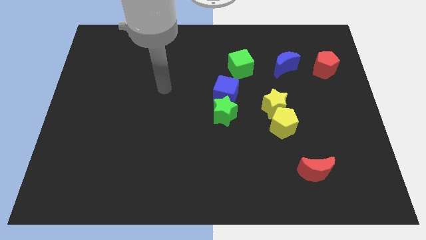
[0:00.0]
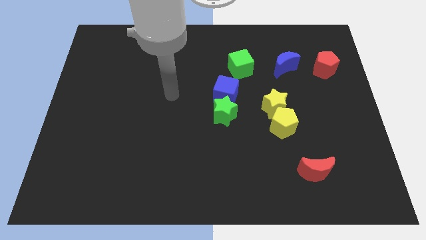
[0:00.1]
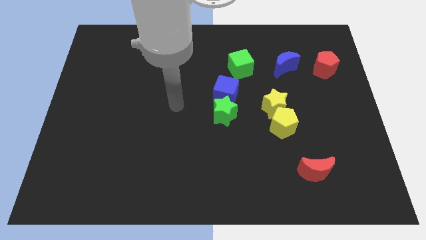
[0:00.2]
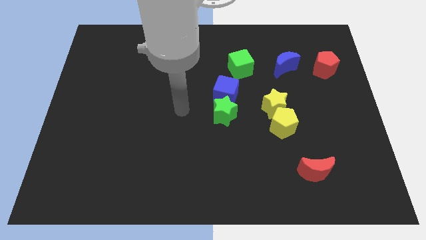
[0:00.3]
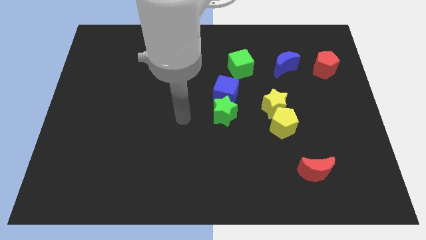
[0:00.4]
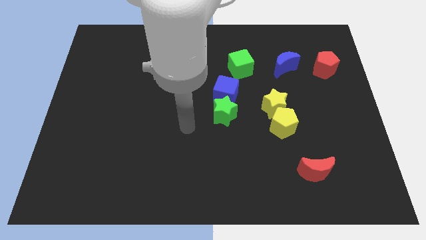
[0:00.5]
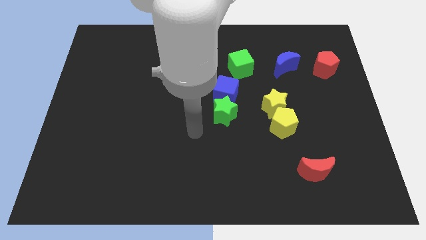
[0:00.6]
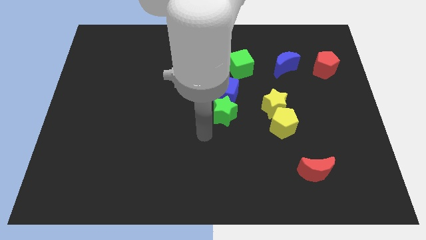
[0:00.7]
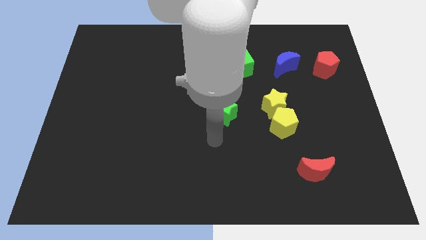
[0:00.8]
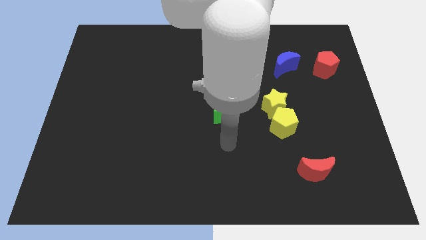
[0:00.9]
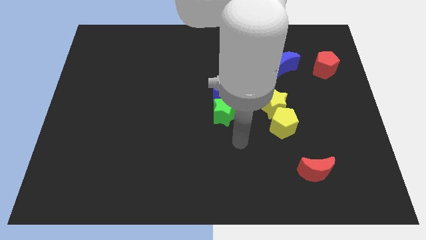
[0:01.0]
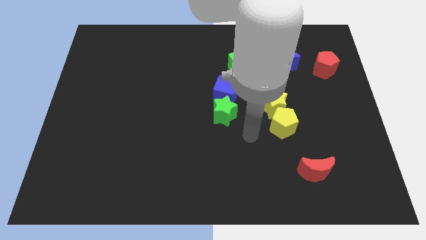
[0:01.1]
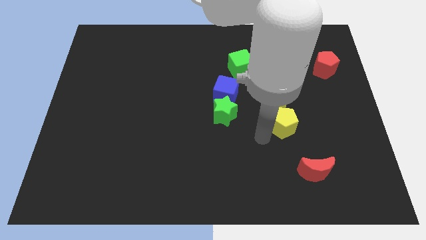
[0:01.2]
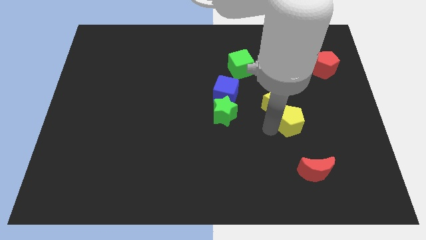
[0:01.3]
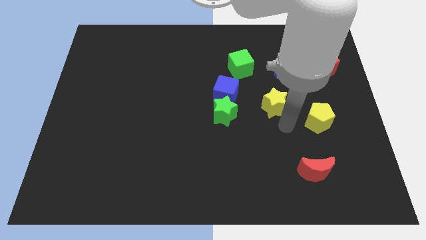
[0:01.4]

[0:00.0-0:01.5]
move the yellow star away from the yellow pentagon

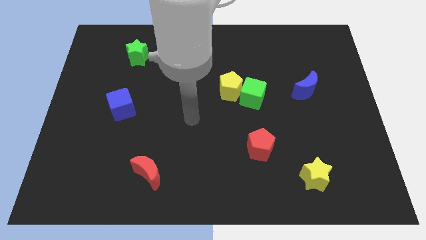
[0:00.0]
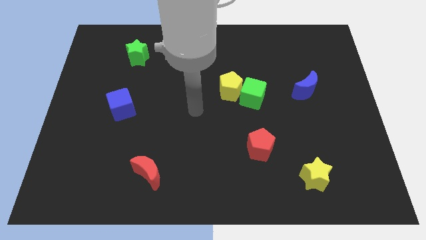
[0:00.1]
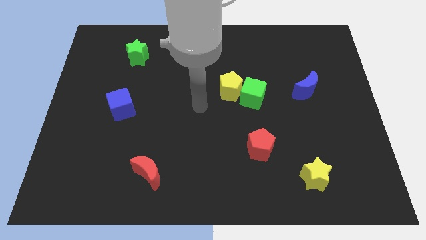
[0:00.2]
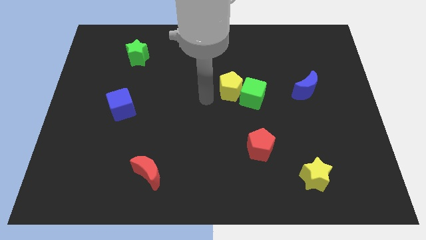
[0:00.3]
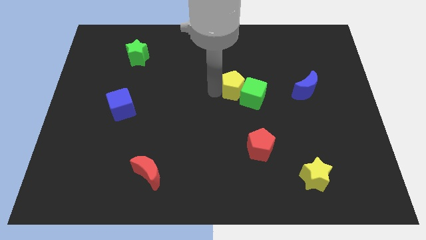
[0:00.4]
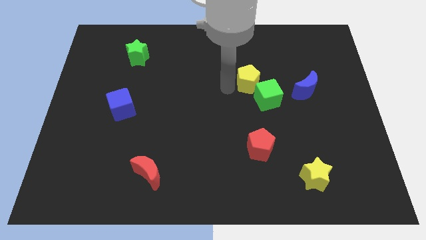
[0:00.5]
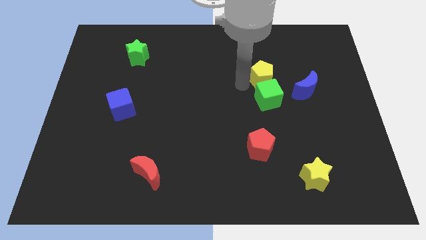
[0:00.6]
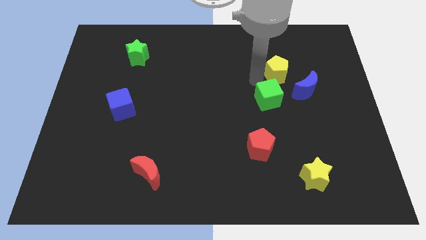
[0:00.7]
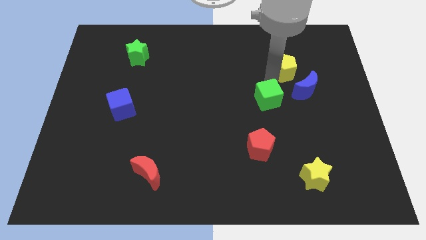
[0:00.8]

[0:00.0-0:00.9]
move the green cube away from the yellow pentagon

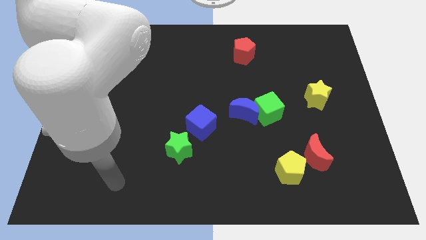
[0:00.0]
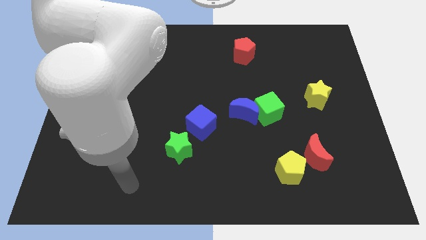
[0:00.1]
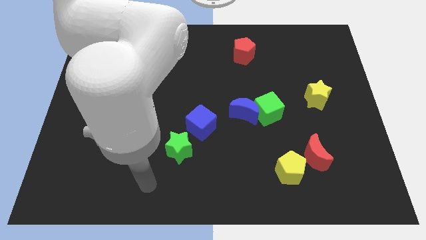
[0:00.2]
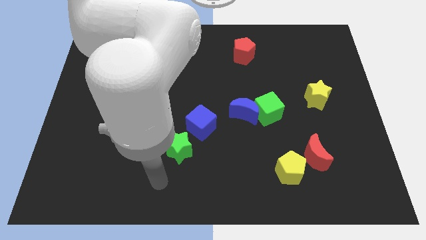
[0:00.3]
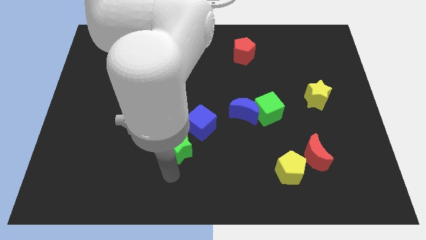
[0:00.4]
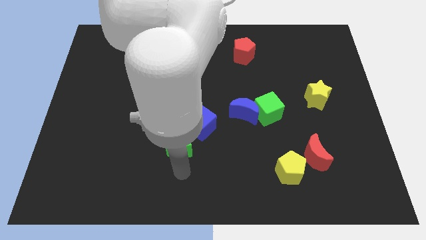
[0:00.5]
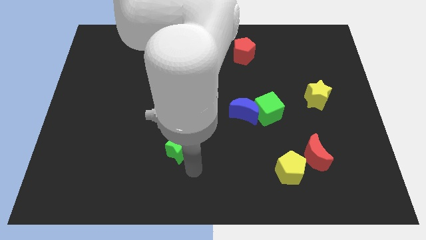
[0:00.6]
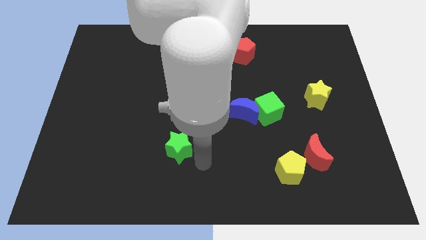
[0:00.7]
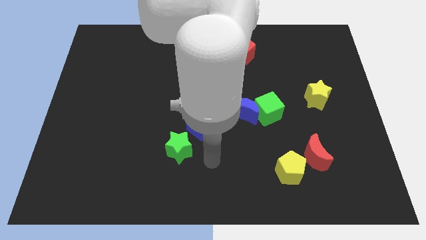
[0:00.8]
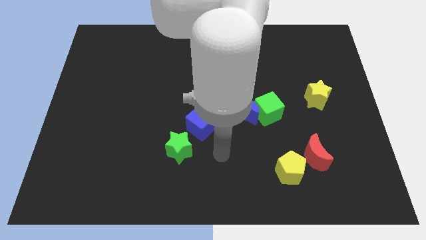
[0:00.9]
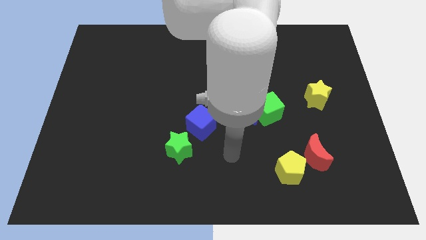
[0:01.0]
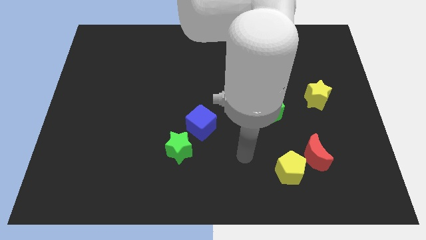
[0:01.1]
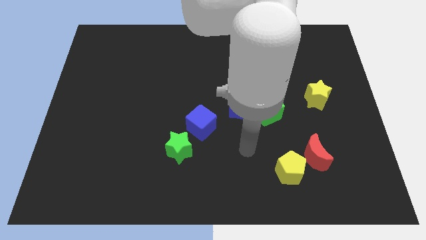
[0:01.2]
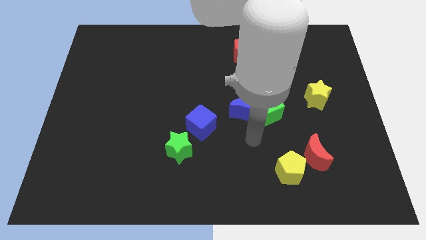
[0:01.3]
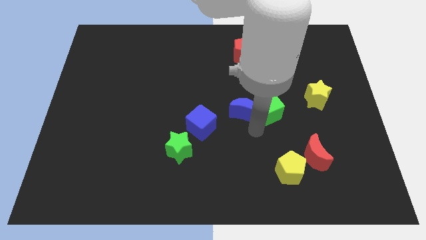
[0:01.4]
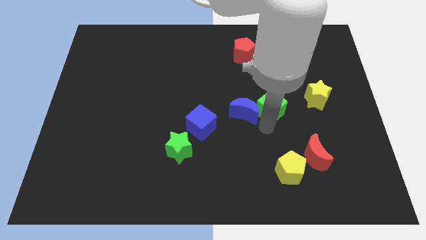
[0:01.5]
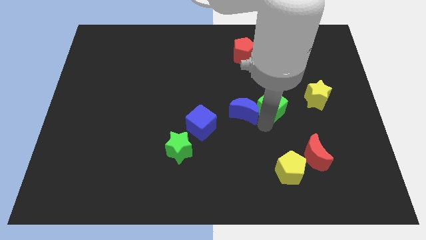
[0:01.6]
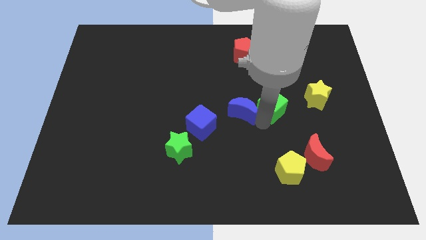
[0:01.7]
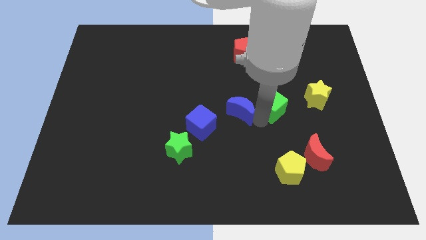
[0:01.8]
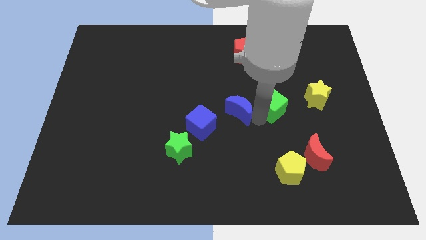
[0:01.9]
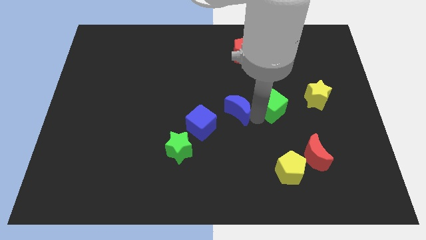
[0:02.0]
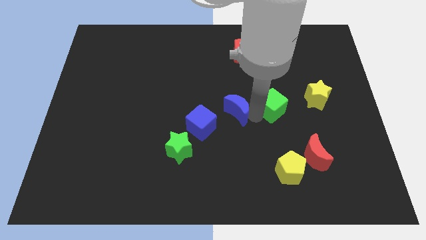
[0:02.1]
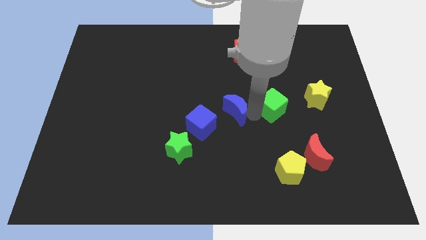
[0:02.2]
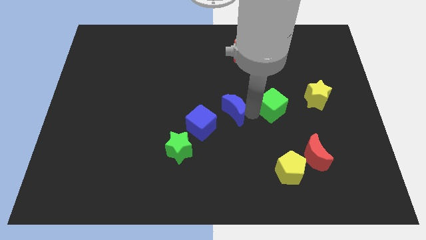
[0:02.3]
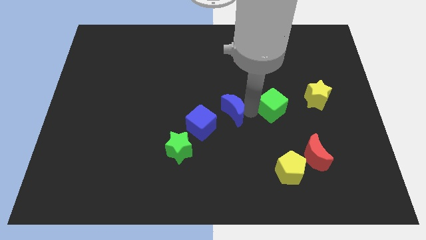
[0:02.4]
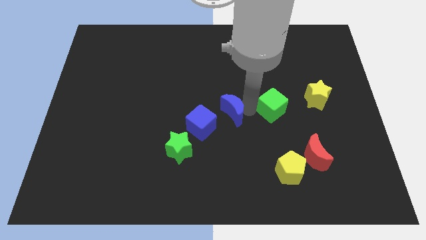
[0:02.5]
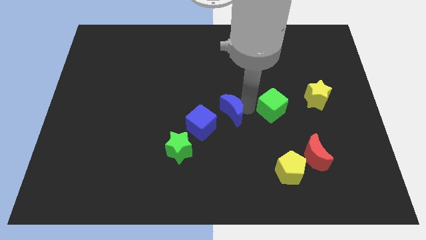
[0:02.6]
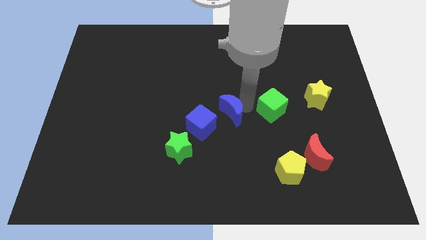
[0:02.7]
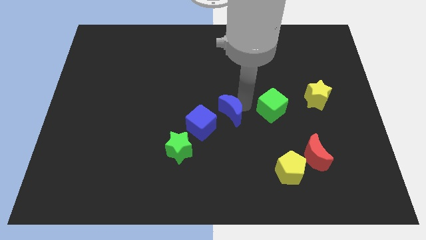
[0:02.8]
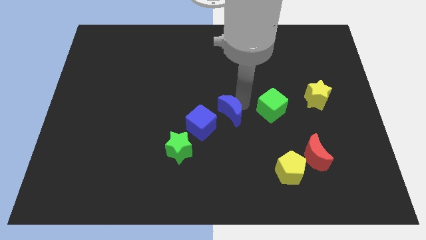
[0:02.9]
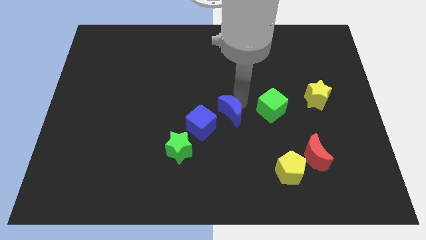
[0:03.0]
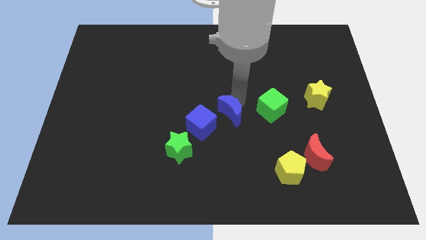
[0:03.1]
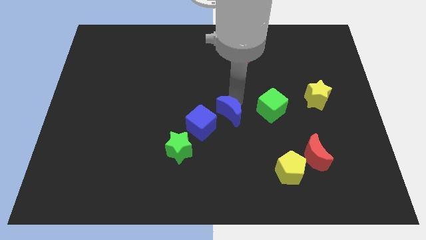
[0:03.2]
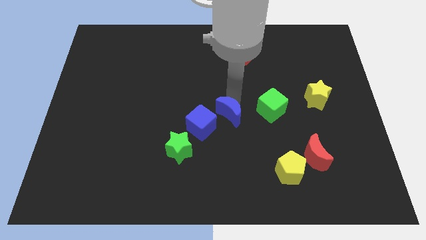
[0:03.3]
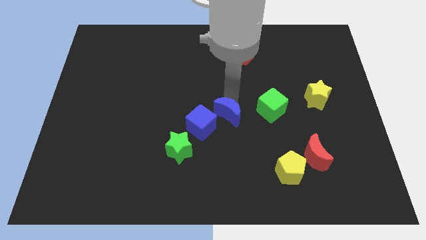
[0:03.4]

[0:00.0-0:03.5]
separate the blue moon from the green cube

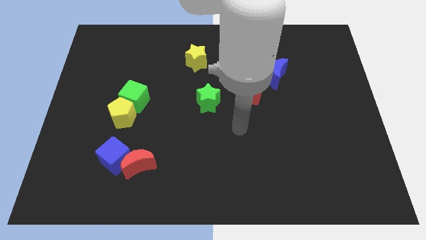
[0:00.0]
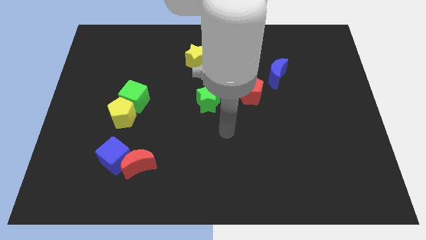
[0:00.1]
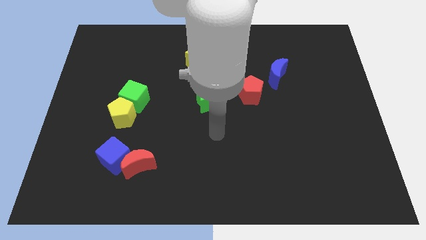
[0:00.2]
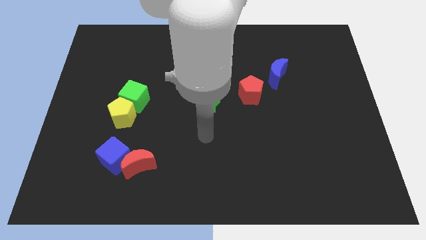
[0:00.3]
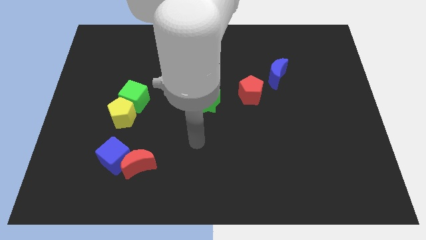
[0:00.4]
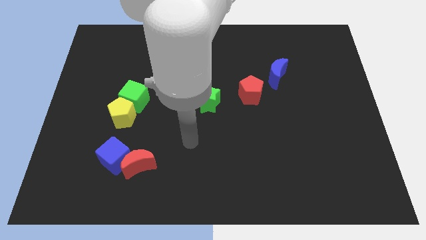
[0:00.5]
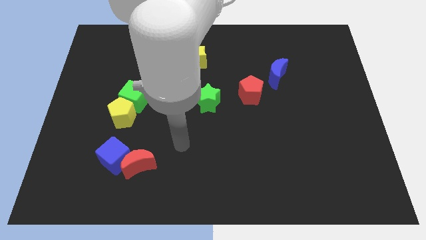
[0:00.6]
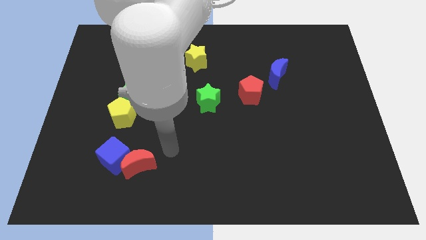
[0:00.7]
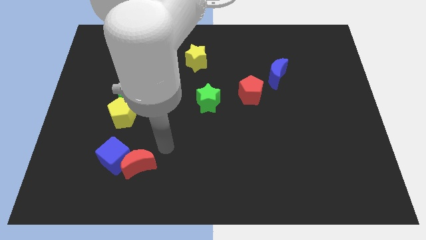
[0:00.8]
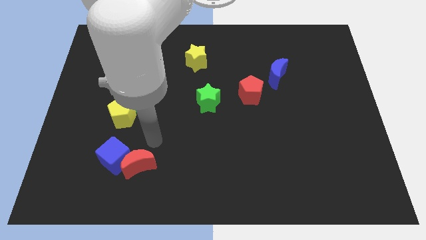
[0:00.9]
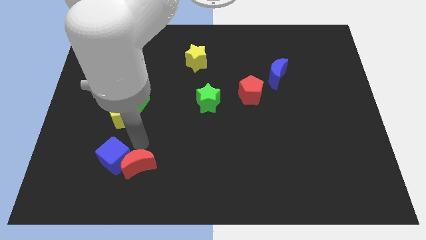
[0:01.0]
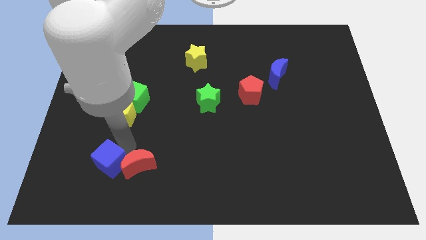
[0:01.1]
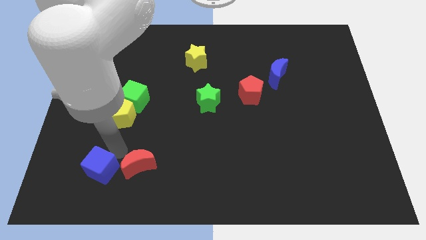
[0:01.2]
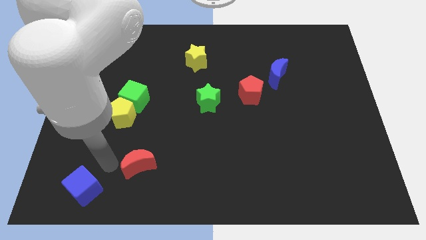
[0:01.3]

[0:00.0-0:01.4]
pull the red moon apart from the blue cube

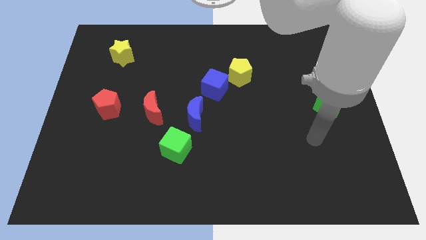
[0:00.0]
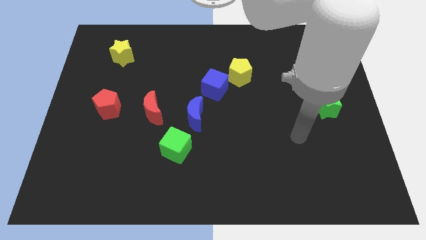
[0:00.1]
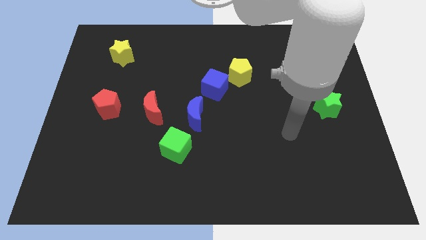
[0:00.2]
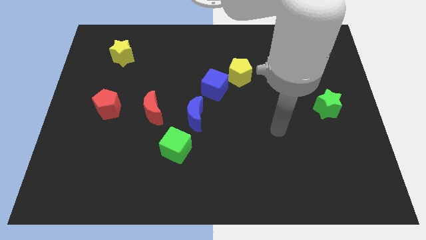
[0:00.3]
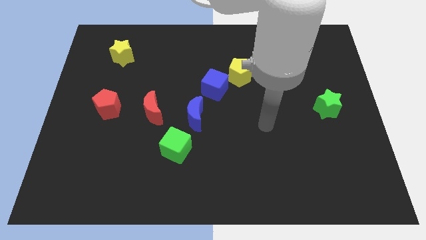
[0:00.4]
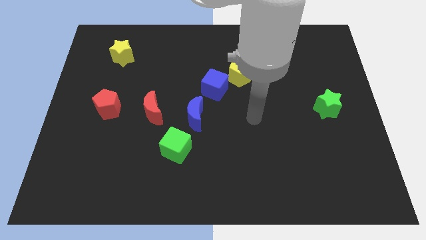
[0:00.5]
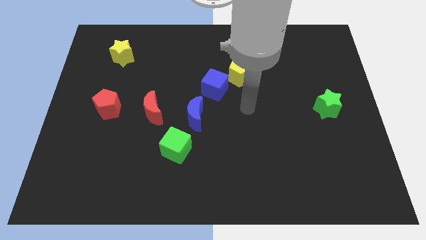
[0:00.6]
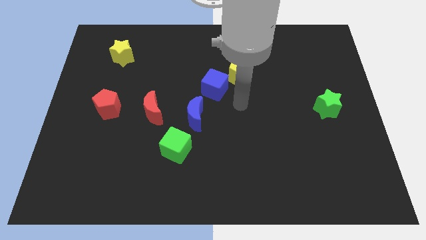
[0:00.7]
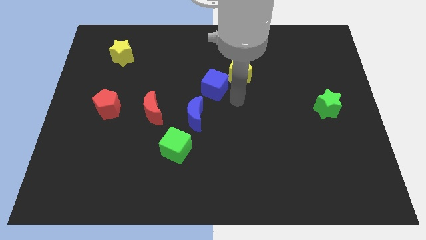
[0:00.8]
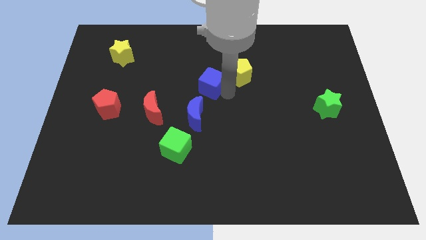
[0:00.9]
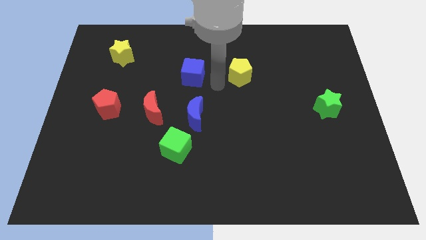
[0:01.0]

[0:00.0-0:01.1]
move the yellow pentagon away from the blue cube

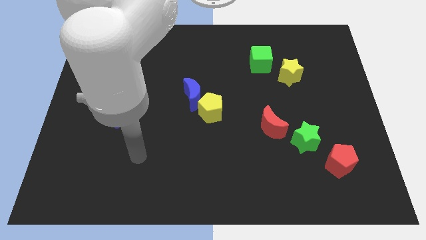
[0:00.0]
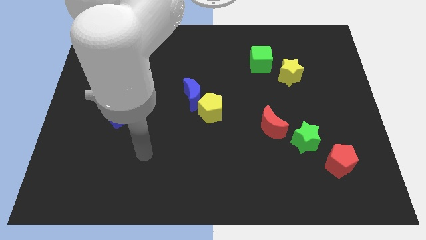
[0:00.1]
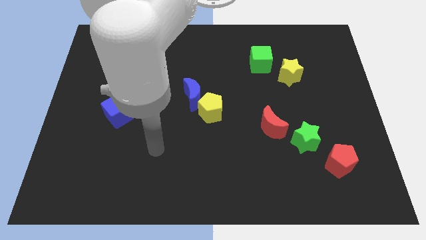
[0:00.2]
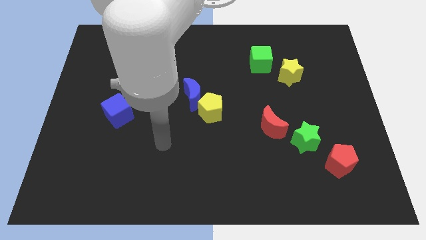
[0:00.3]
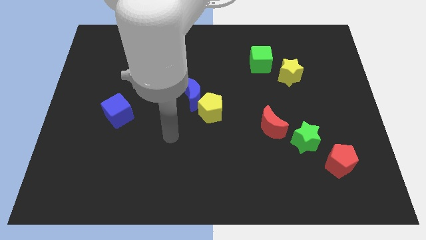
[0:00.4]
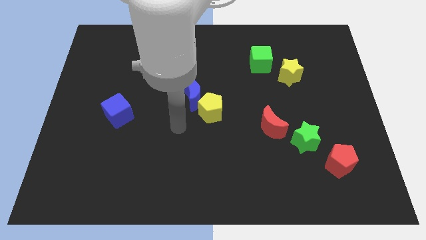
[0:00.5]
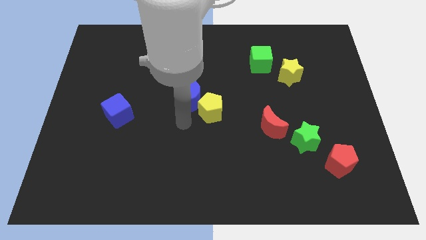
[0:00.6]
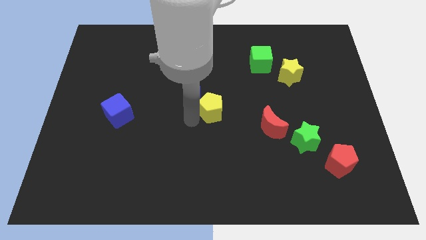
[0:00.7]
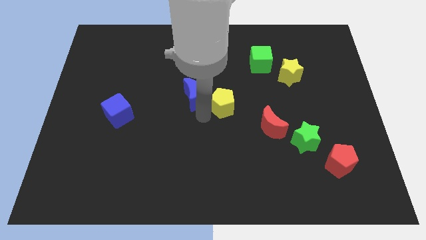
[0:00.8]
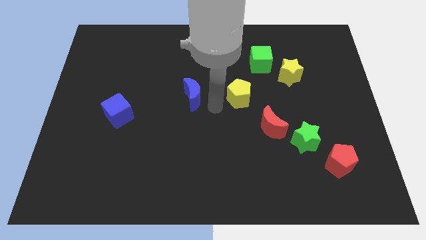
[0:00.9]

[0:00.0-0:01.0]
separate the blue moon from the yellow pentagon
